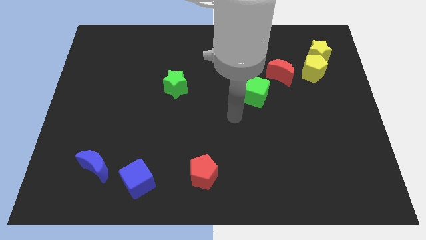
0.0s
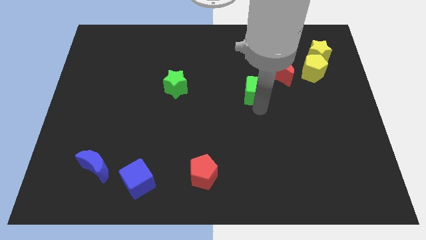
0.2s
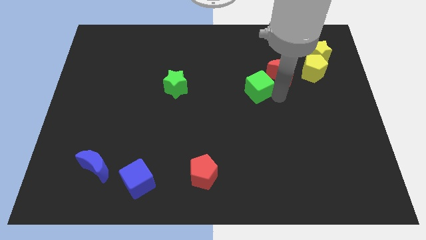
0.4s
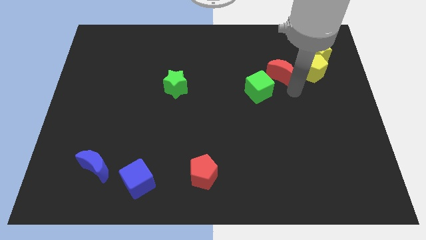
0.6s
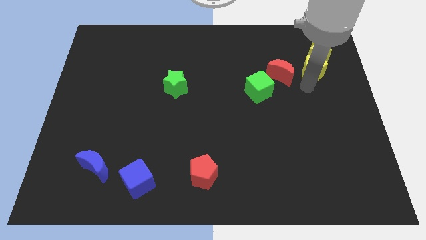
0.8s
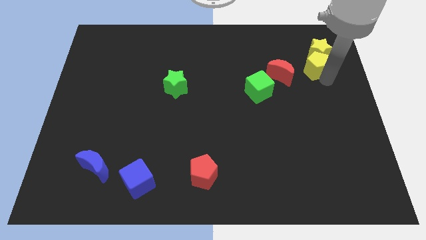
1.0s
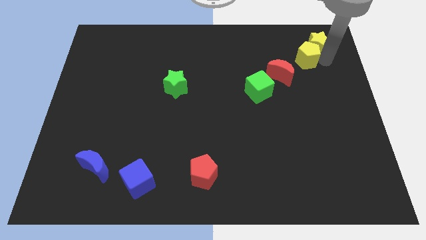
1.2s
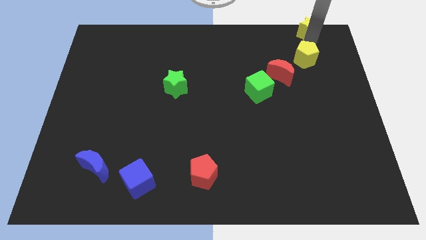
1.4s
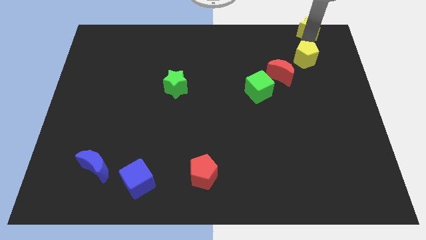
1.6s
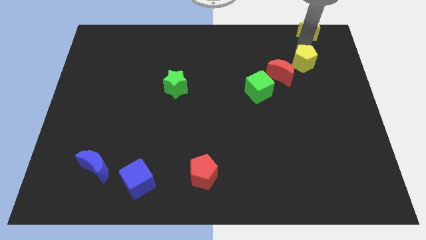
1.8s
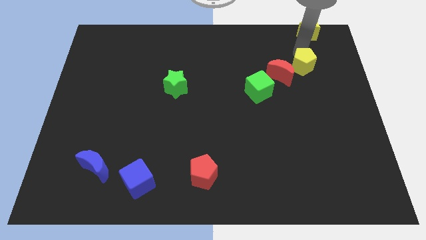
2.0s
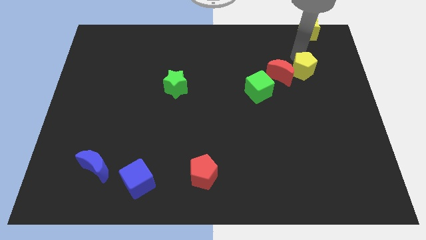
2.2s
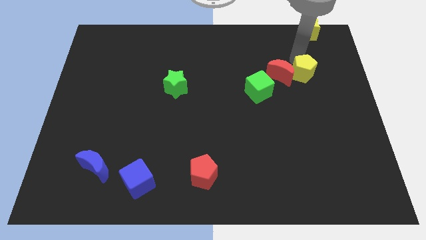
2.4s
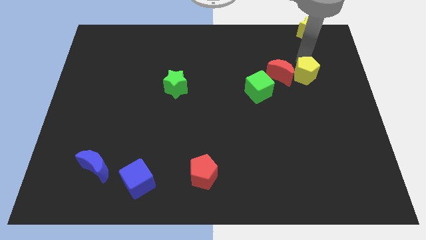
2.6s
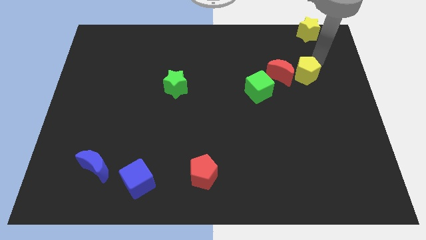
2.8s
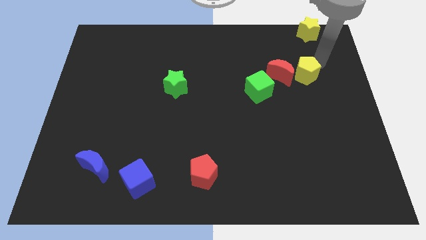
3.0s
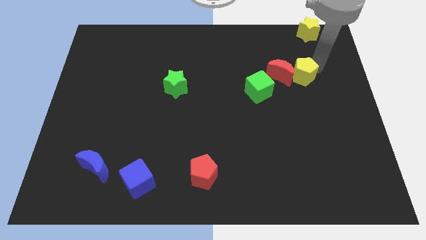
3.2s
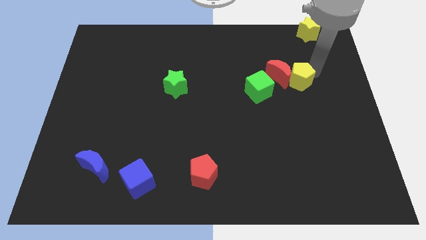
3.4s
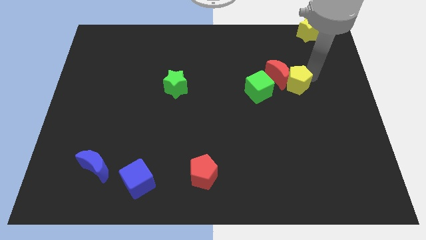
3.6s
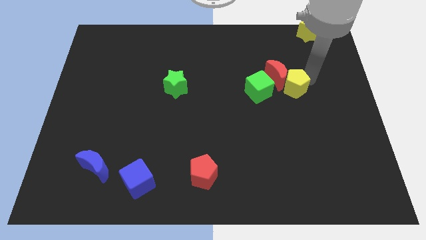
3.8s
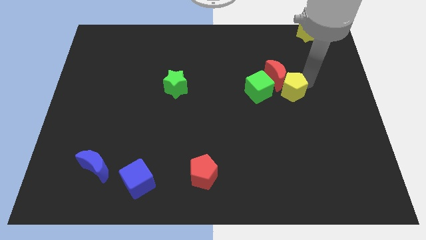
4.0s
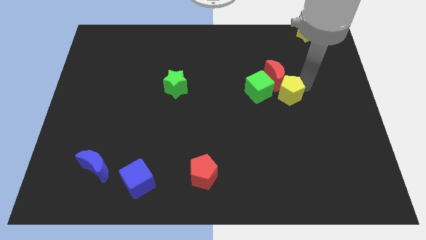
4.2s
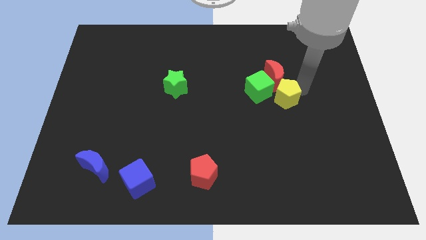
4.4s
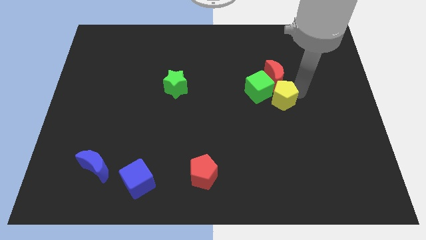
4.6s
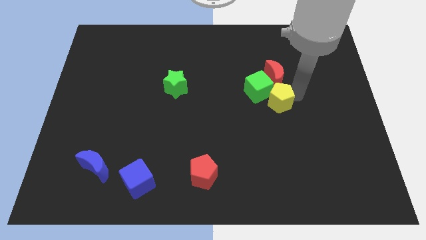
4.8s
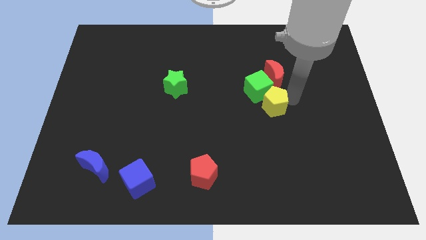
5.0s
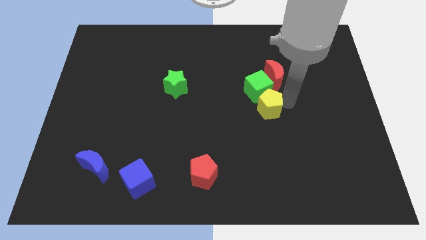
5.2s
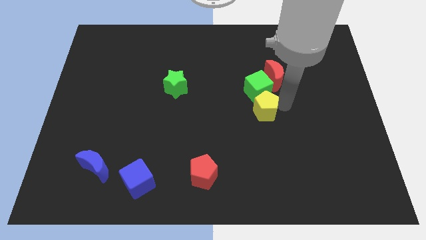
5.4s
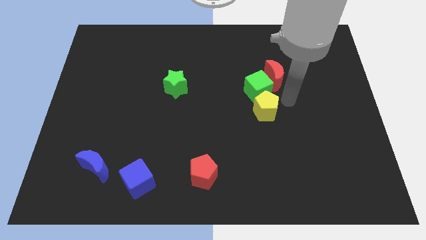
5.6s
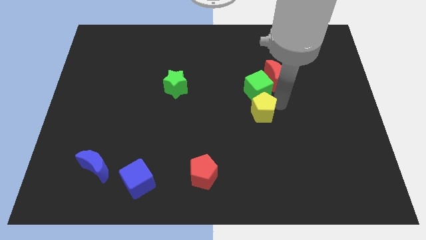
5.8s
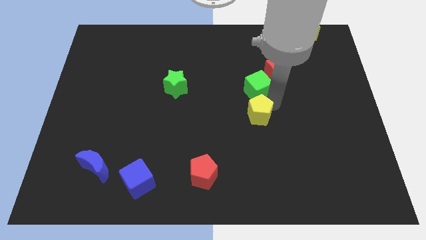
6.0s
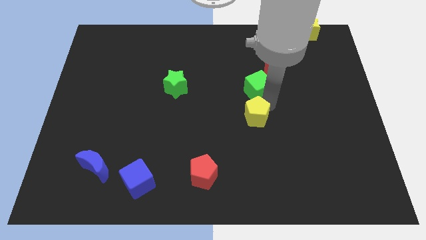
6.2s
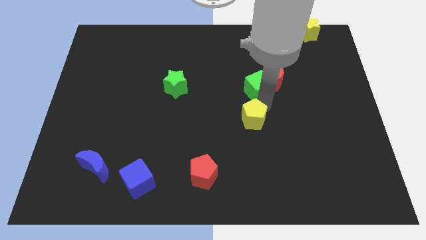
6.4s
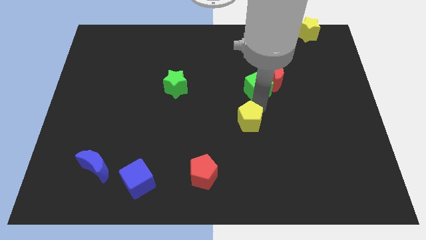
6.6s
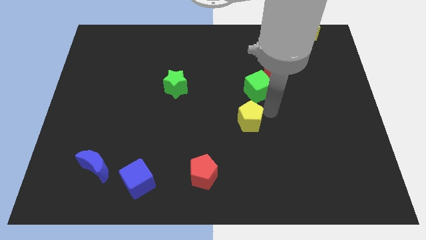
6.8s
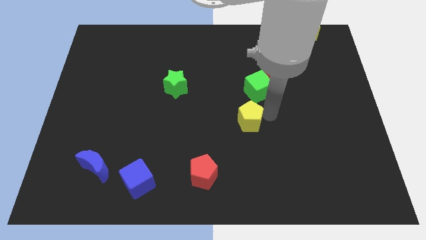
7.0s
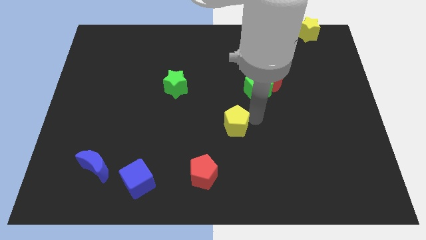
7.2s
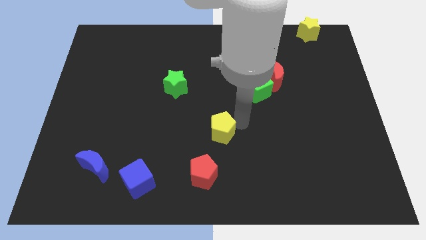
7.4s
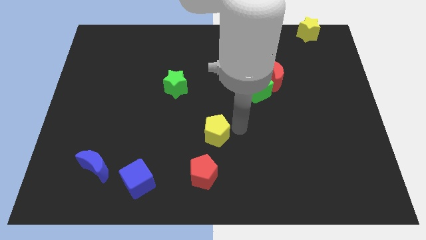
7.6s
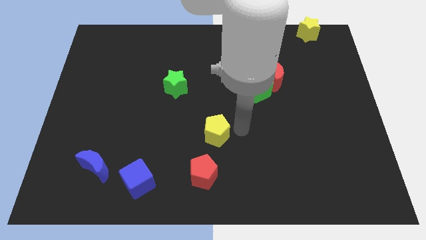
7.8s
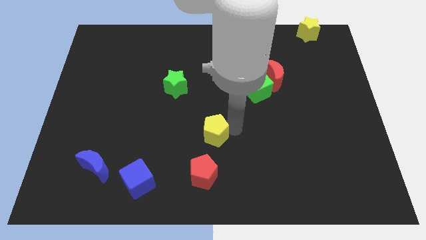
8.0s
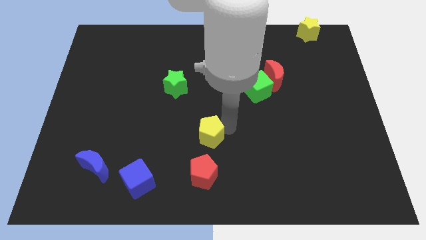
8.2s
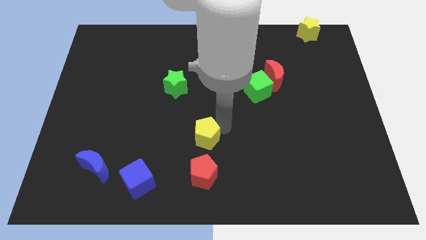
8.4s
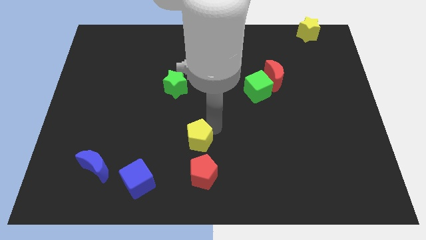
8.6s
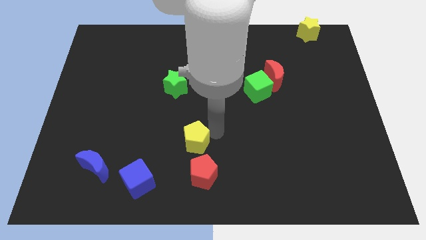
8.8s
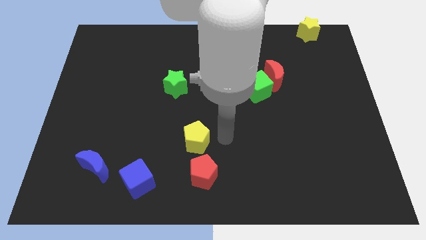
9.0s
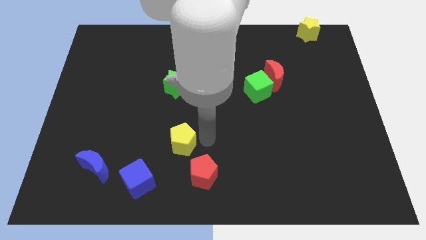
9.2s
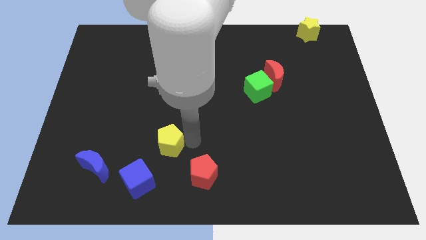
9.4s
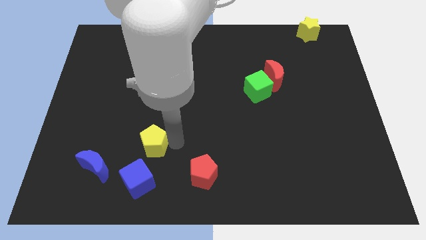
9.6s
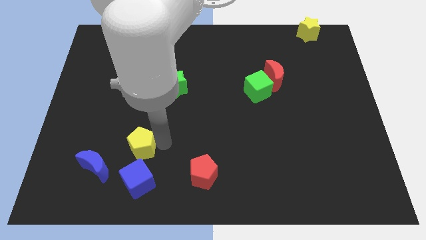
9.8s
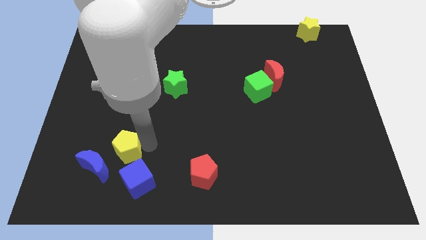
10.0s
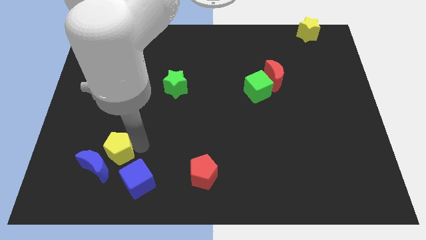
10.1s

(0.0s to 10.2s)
move the yellow pentagon next to the blue moon

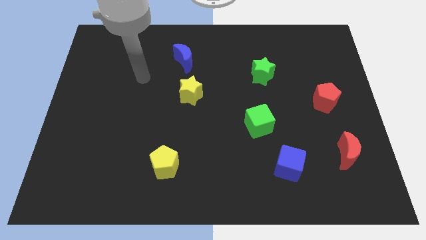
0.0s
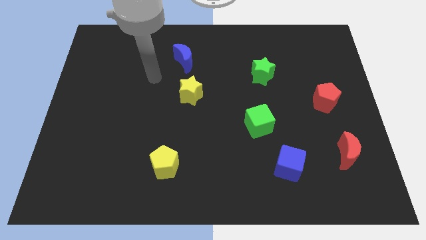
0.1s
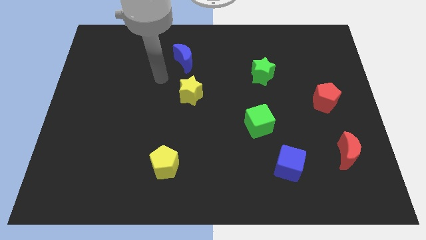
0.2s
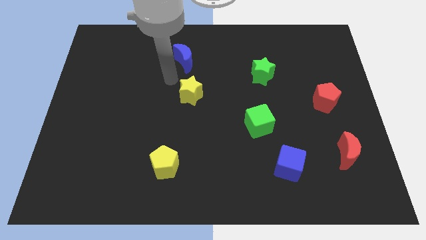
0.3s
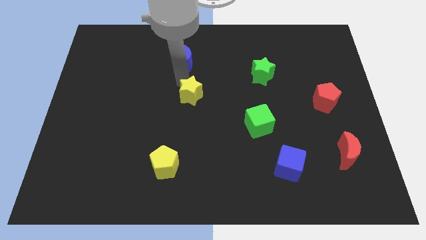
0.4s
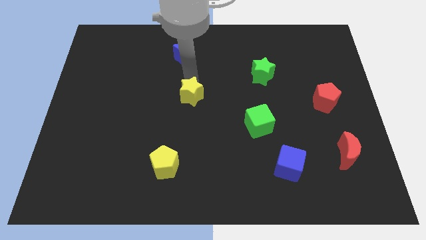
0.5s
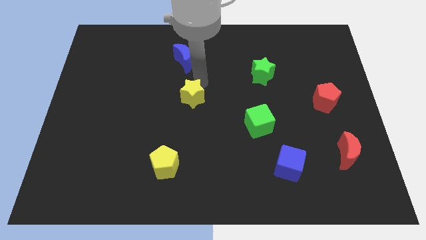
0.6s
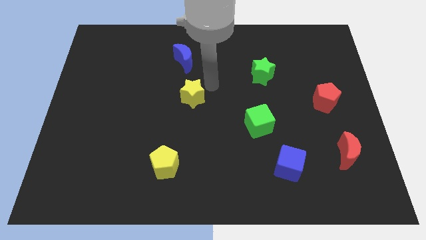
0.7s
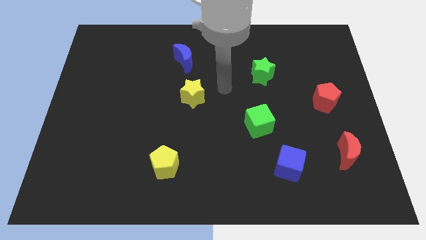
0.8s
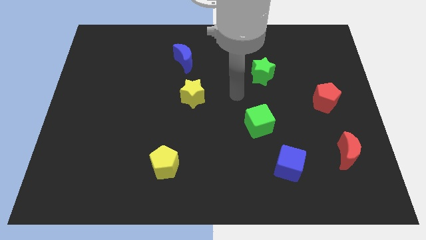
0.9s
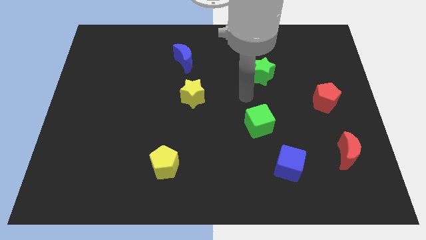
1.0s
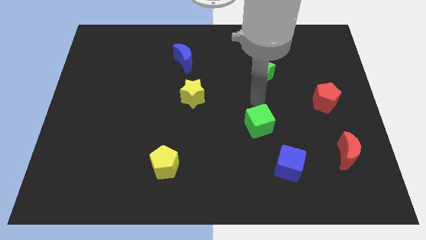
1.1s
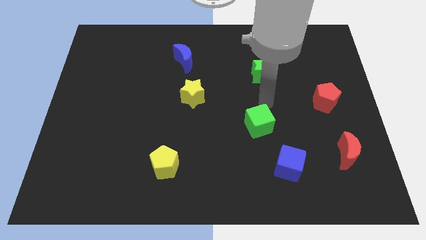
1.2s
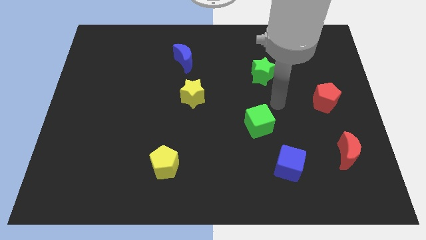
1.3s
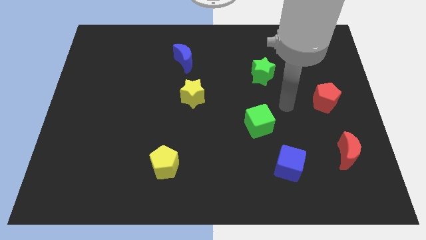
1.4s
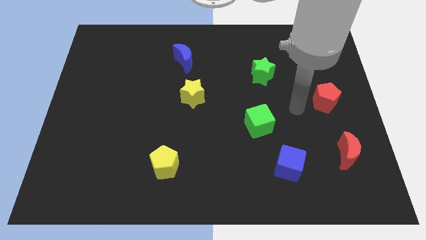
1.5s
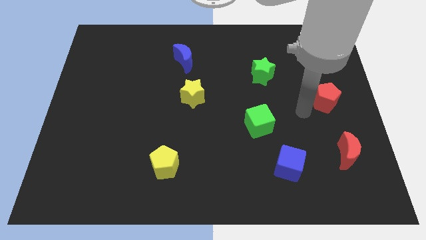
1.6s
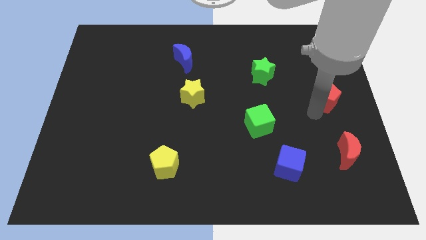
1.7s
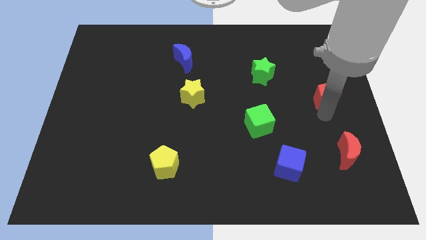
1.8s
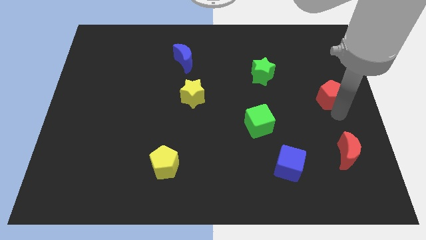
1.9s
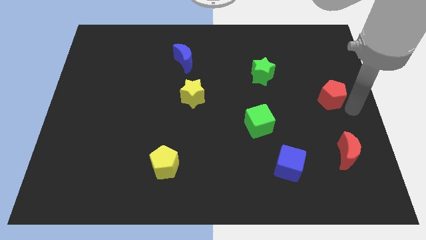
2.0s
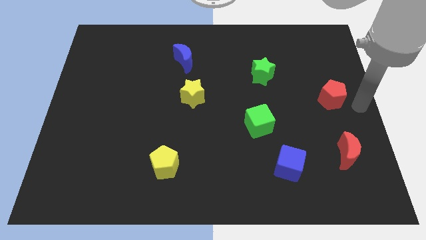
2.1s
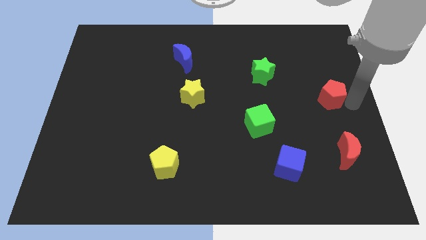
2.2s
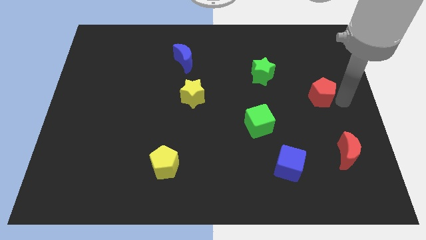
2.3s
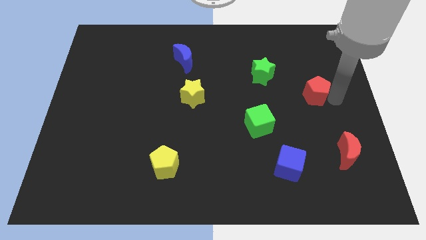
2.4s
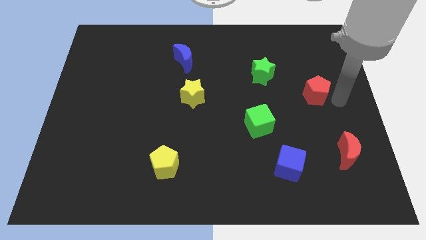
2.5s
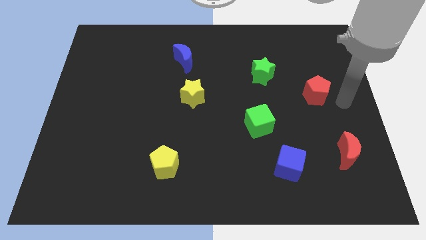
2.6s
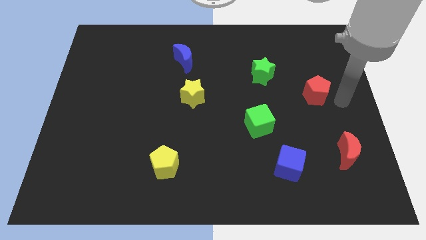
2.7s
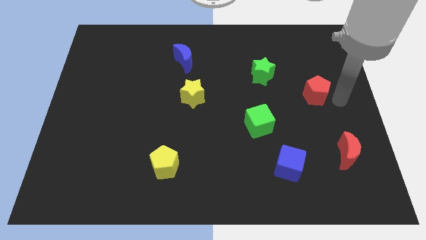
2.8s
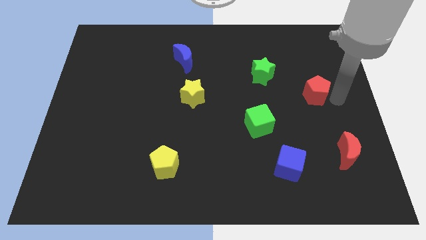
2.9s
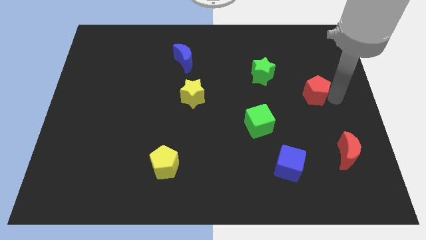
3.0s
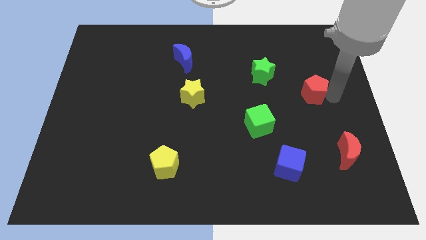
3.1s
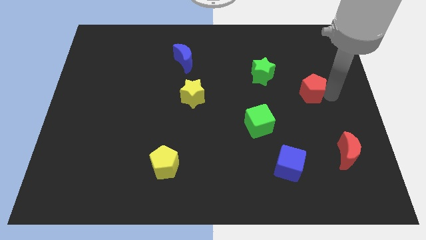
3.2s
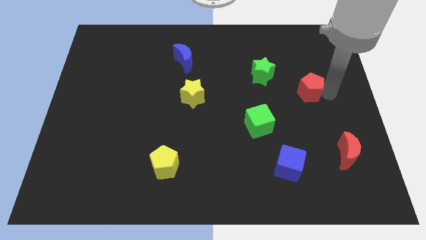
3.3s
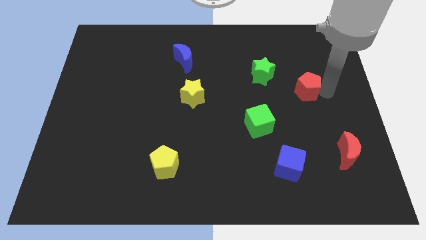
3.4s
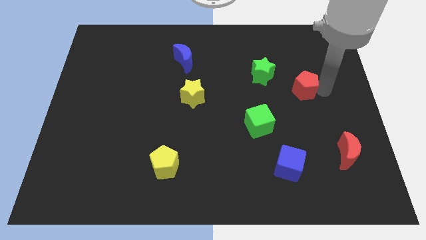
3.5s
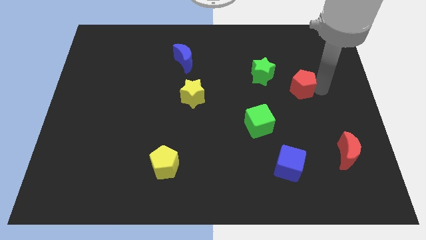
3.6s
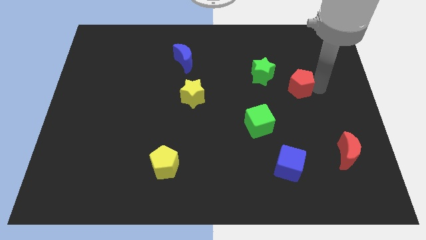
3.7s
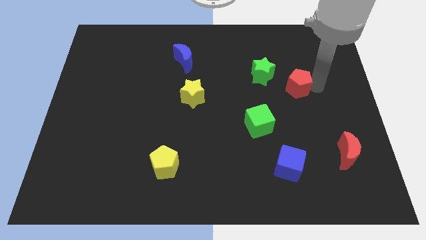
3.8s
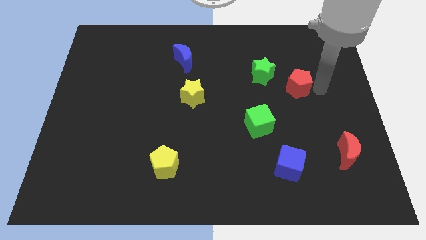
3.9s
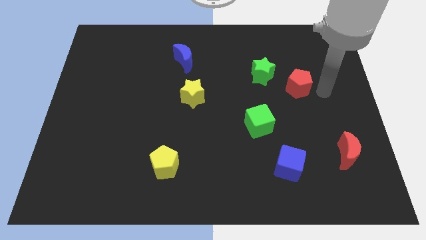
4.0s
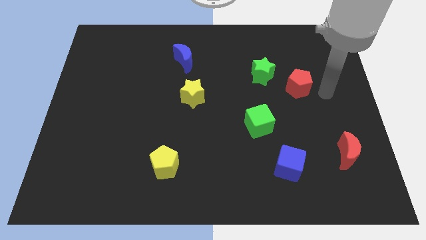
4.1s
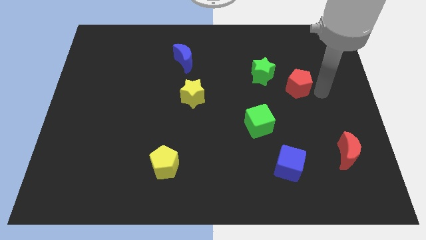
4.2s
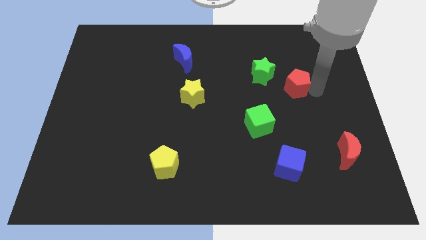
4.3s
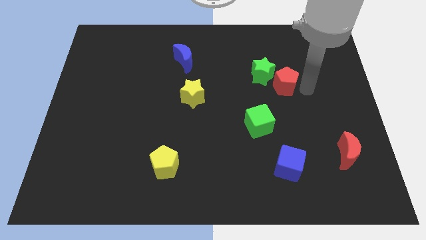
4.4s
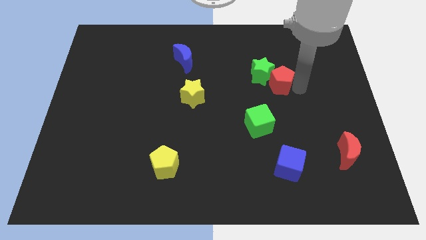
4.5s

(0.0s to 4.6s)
move the red pentagon next to the green star
